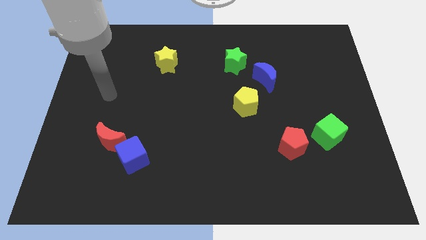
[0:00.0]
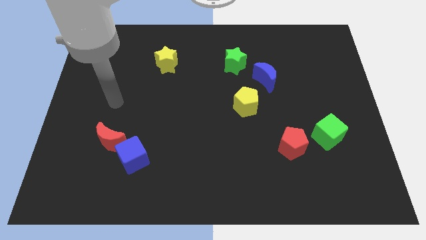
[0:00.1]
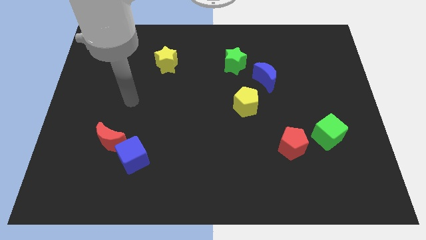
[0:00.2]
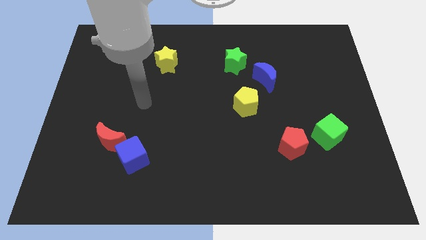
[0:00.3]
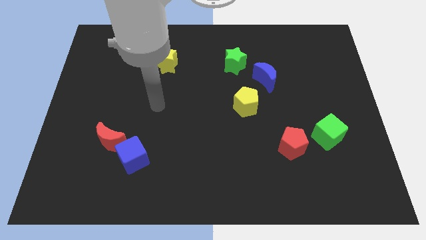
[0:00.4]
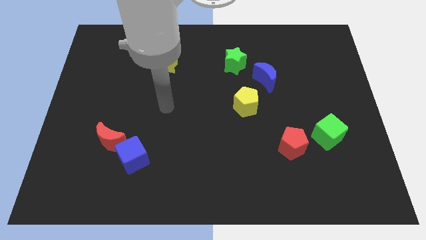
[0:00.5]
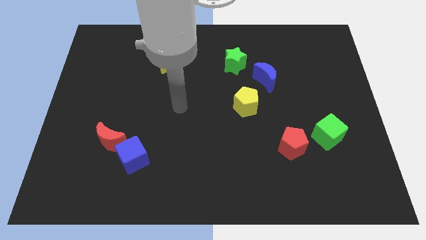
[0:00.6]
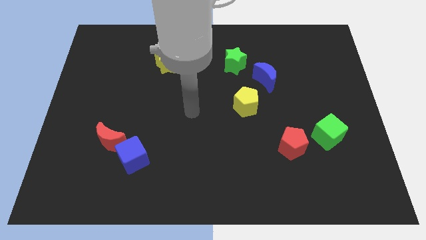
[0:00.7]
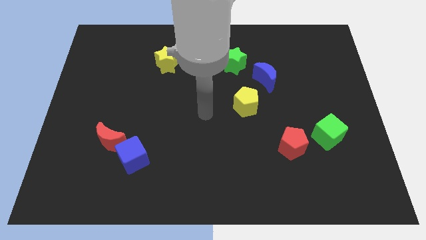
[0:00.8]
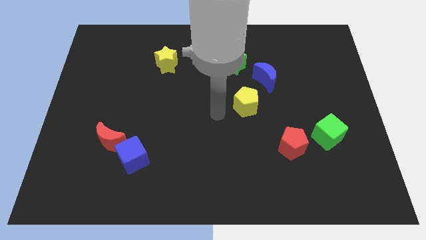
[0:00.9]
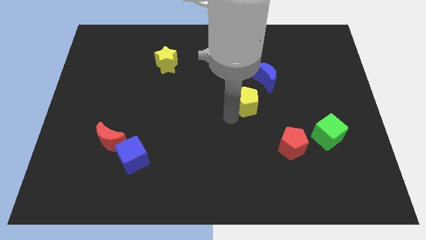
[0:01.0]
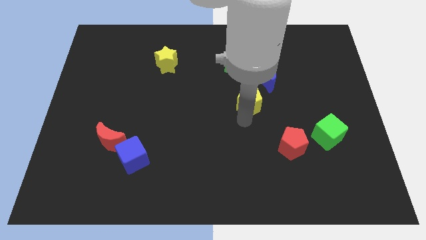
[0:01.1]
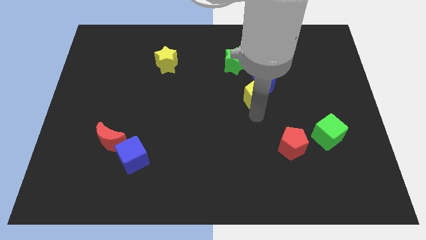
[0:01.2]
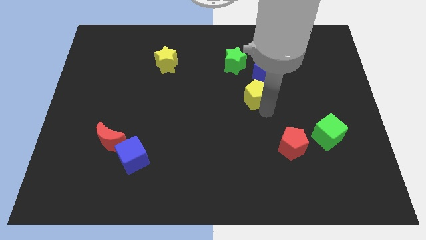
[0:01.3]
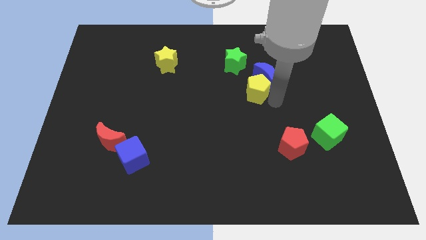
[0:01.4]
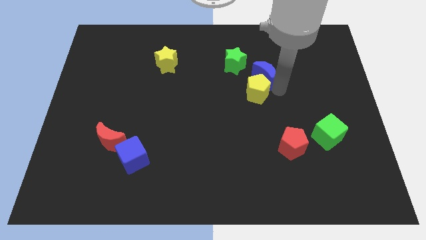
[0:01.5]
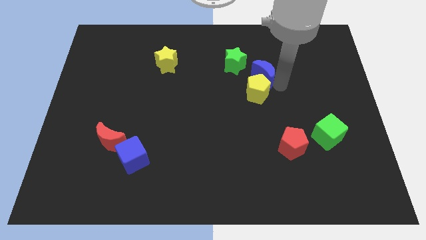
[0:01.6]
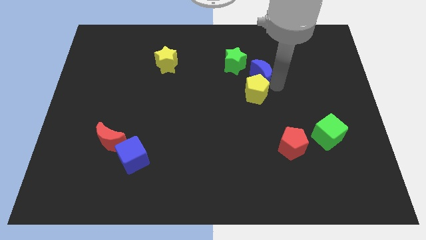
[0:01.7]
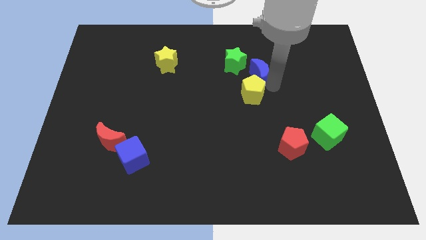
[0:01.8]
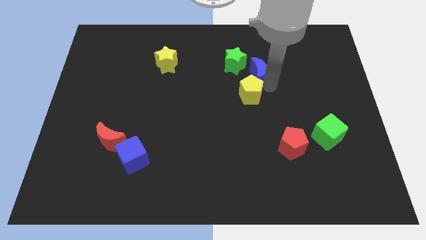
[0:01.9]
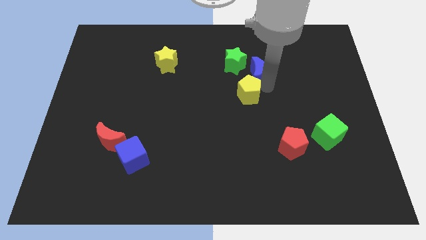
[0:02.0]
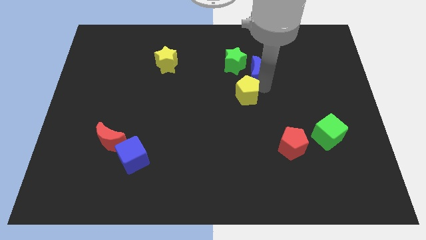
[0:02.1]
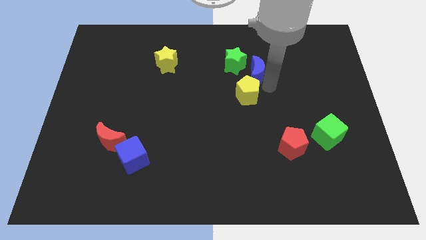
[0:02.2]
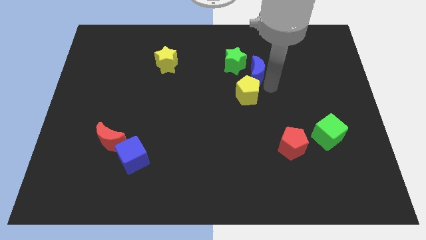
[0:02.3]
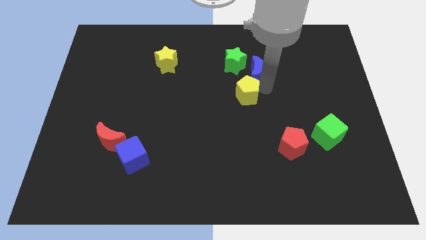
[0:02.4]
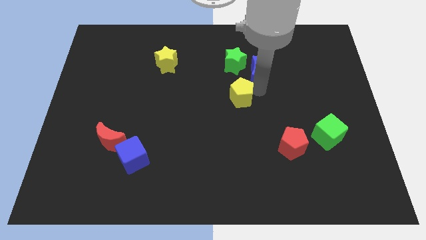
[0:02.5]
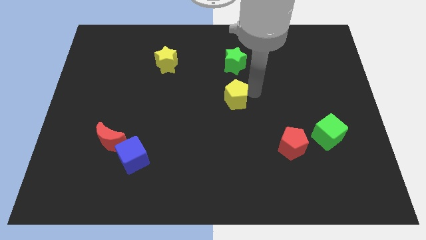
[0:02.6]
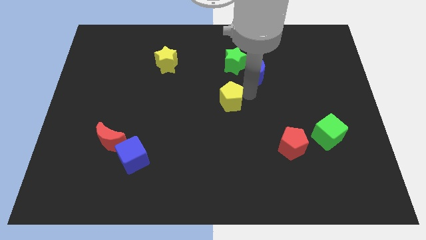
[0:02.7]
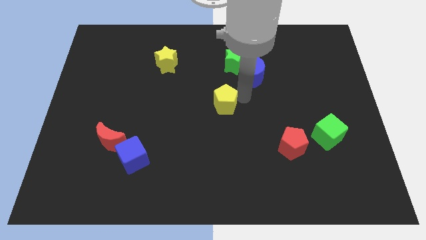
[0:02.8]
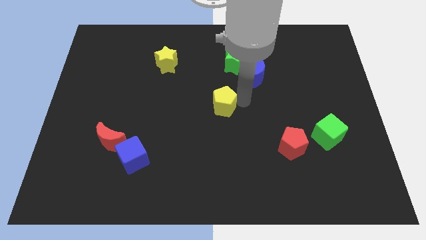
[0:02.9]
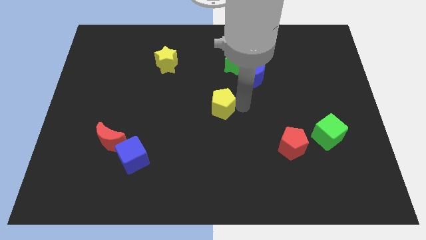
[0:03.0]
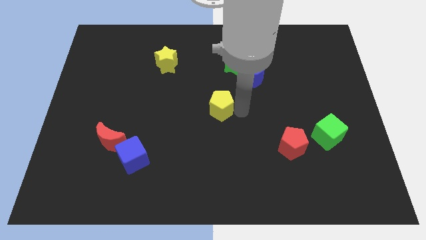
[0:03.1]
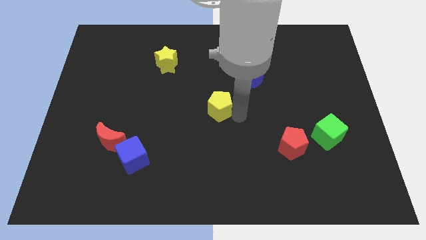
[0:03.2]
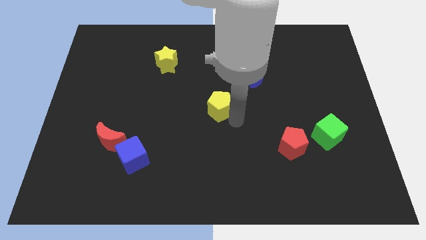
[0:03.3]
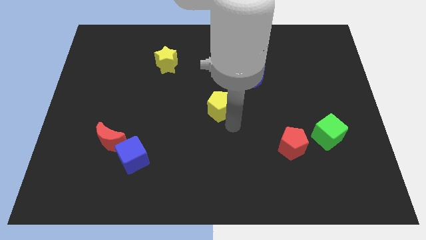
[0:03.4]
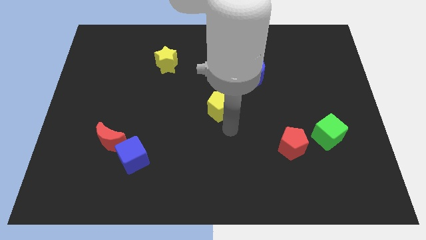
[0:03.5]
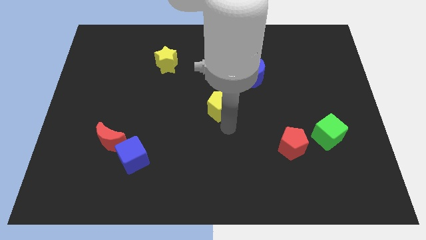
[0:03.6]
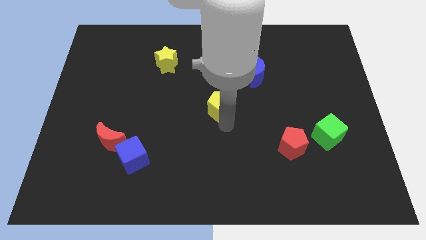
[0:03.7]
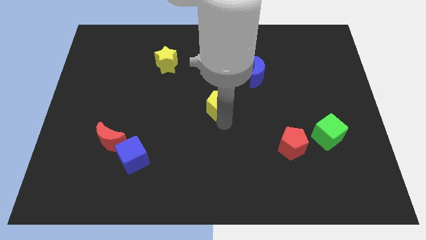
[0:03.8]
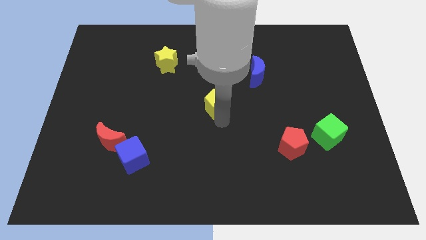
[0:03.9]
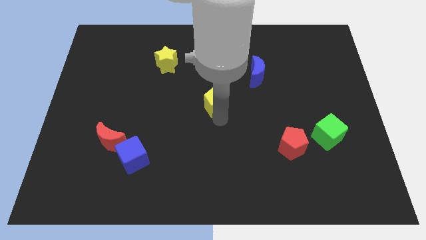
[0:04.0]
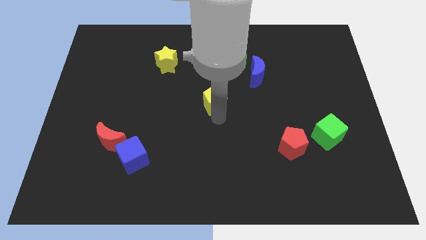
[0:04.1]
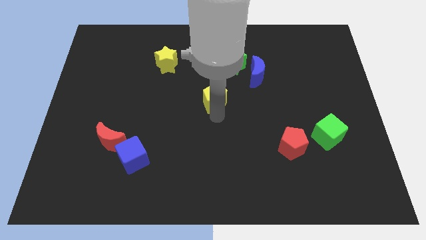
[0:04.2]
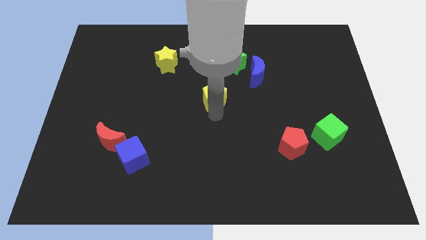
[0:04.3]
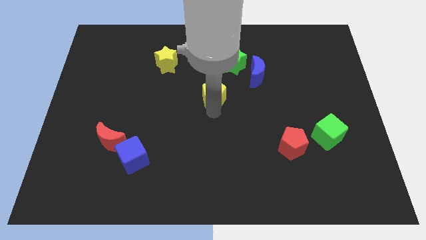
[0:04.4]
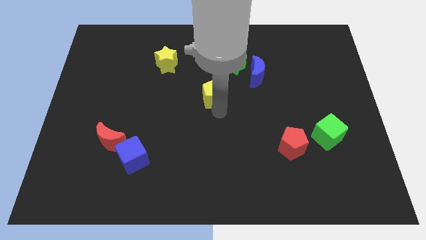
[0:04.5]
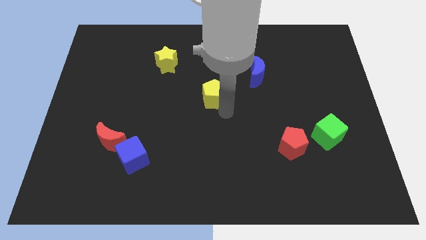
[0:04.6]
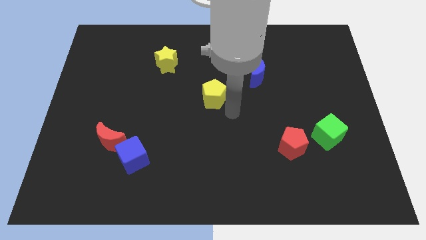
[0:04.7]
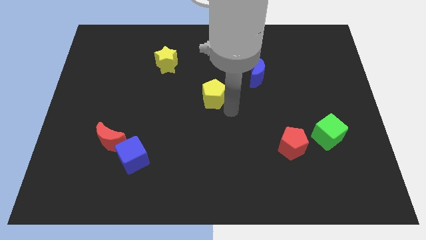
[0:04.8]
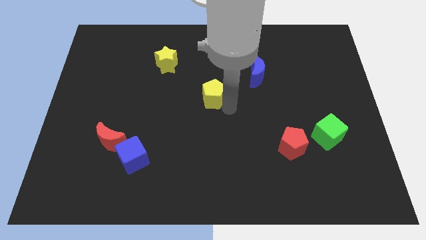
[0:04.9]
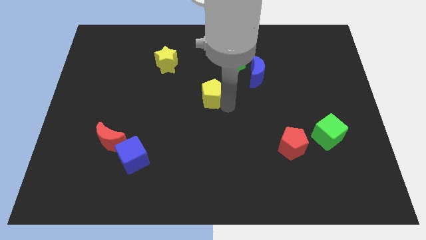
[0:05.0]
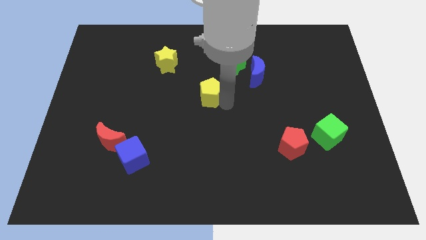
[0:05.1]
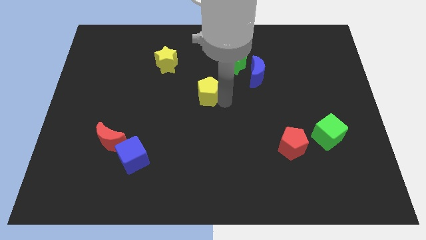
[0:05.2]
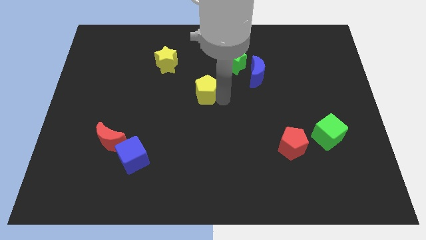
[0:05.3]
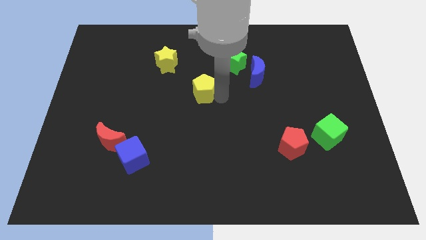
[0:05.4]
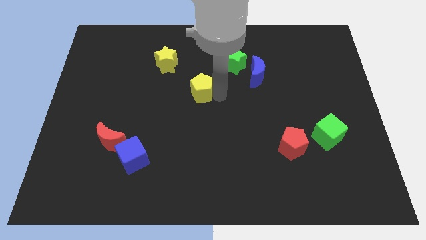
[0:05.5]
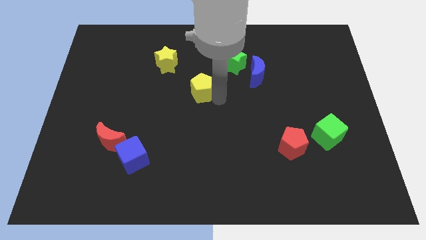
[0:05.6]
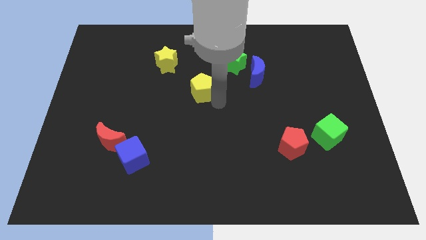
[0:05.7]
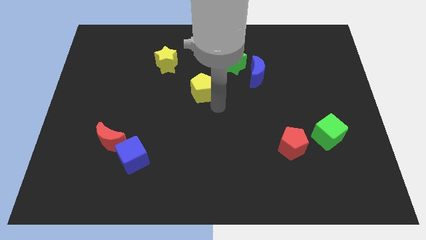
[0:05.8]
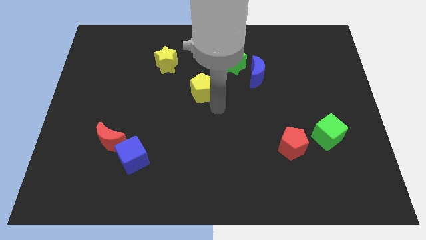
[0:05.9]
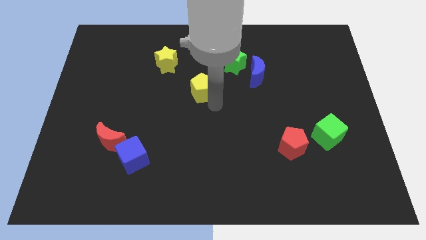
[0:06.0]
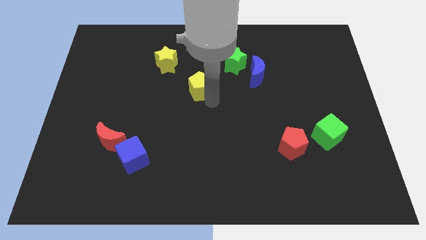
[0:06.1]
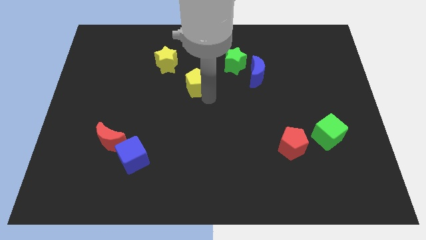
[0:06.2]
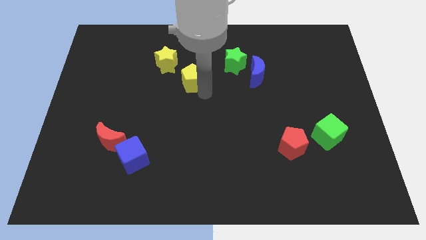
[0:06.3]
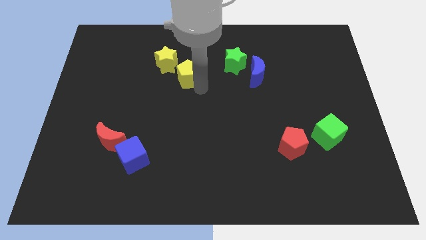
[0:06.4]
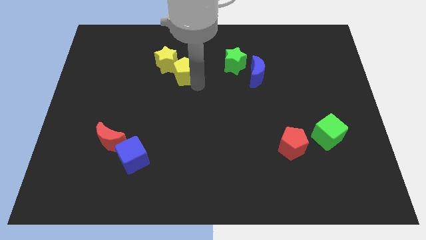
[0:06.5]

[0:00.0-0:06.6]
put the yellow pentagon to the yellow star
